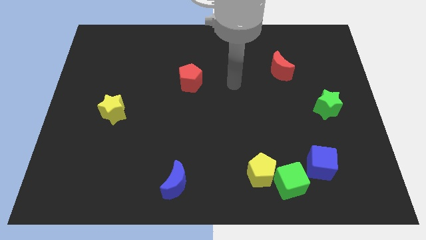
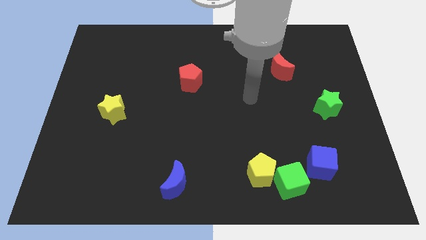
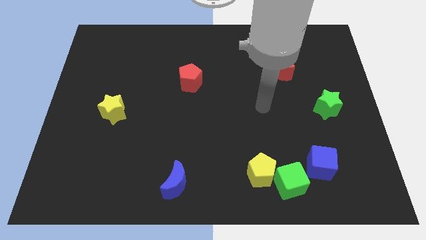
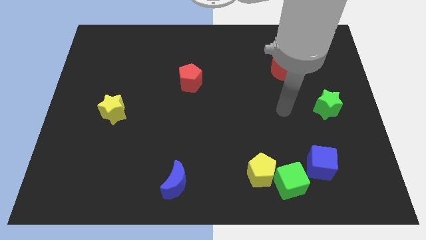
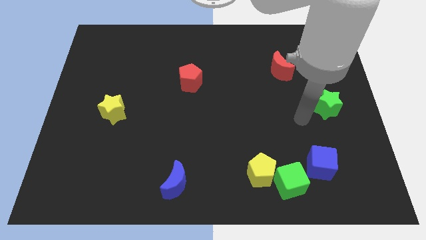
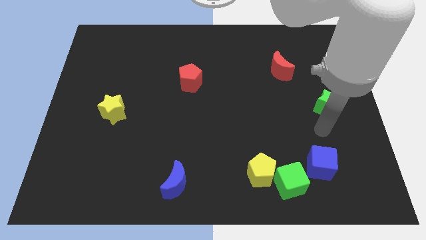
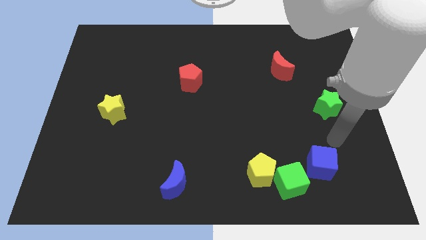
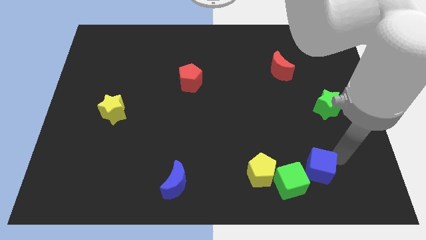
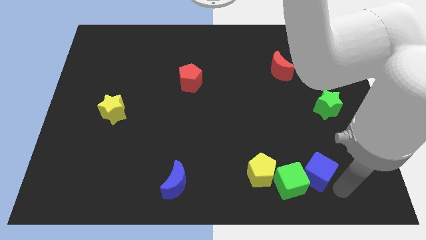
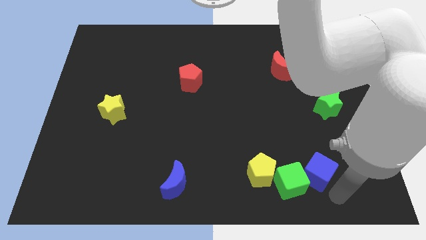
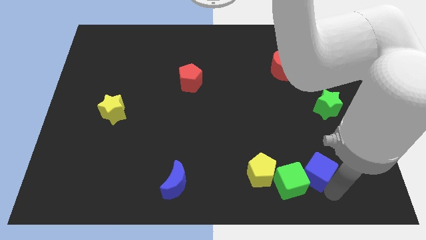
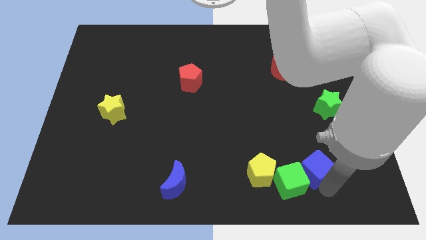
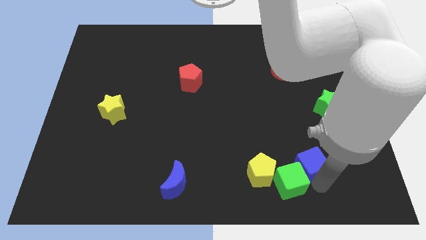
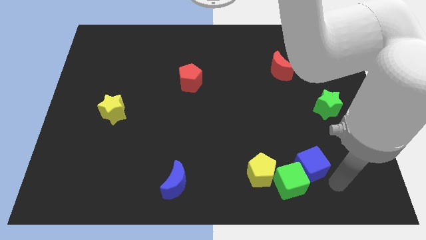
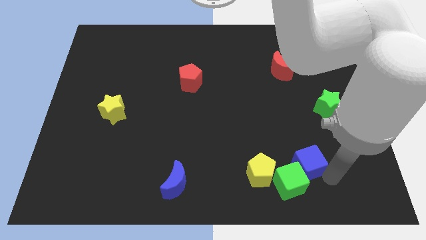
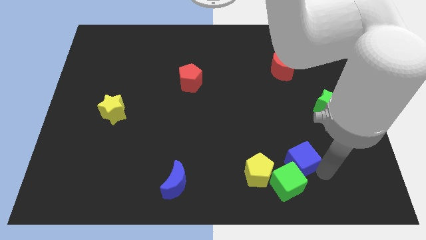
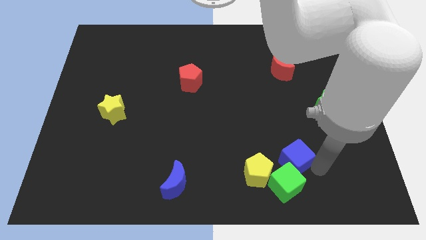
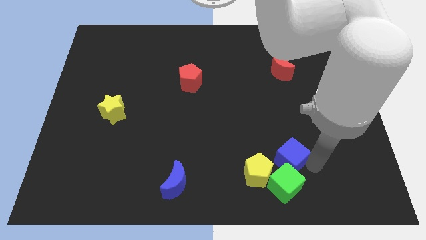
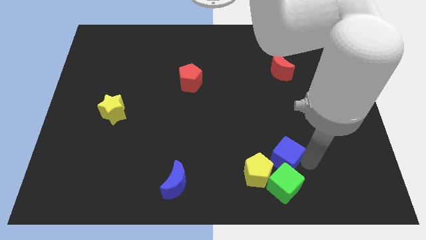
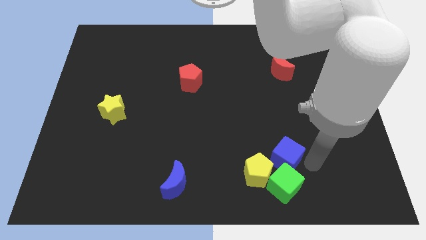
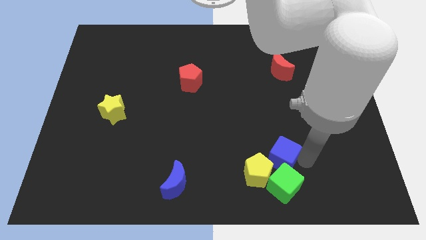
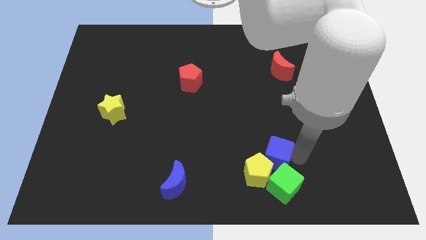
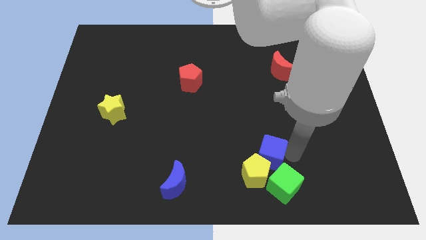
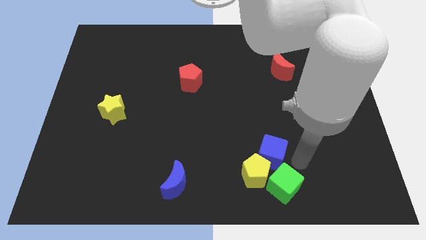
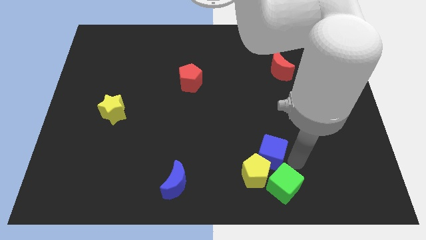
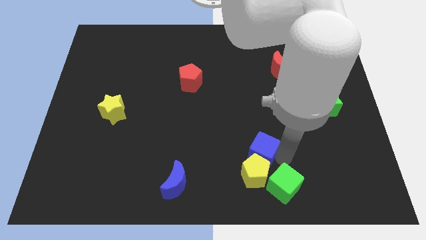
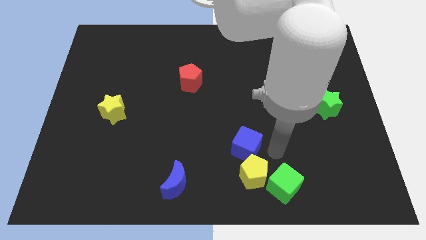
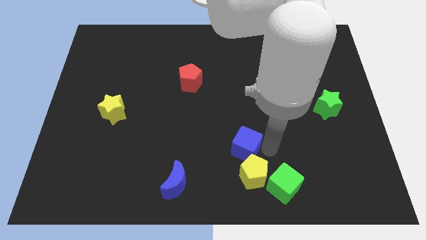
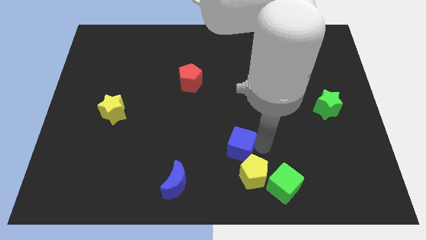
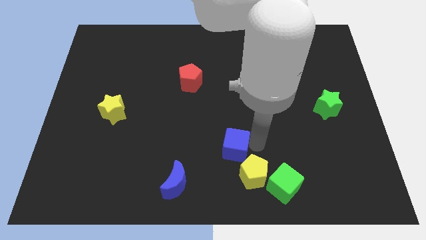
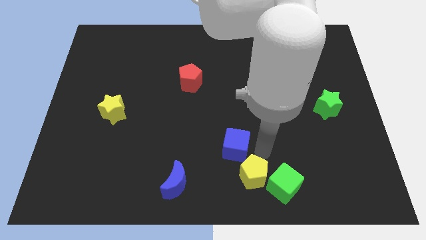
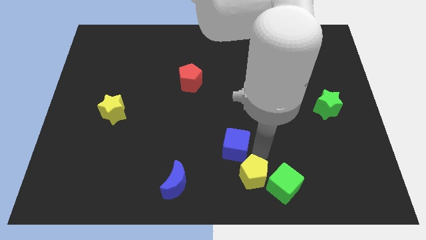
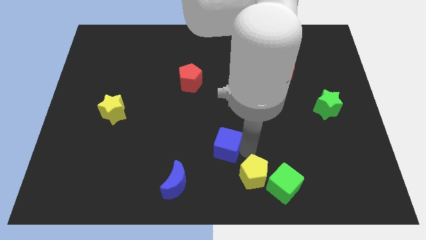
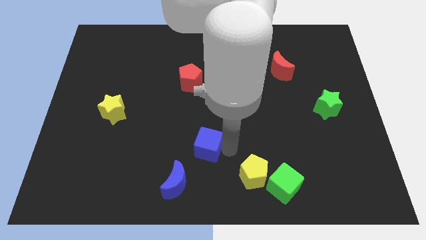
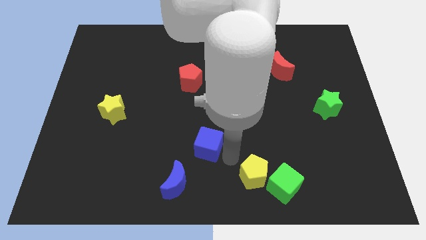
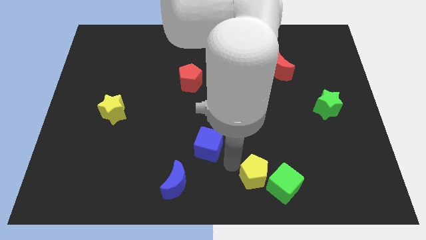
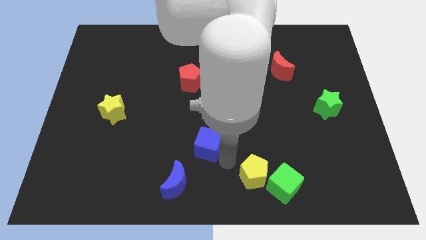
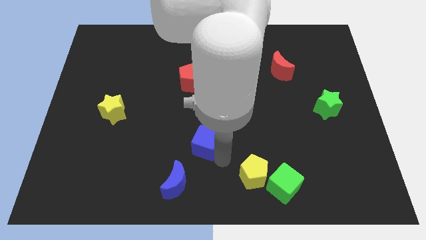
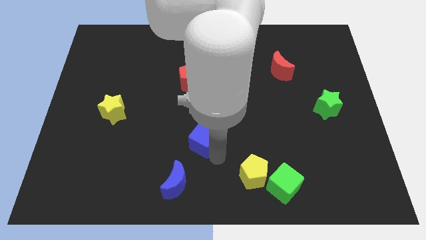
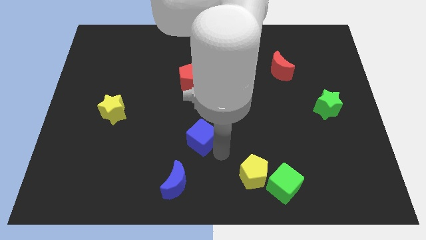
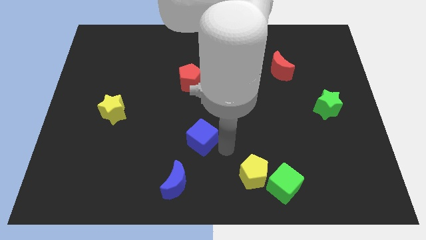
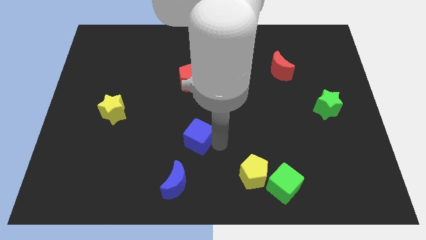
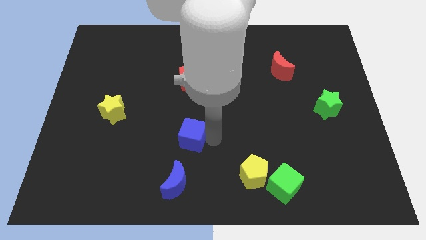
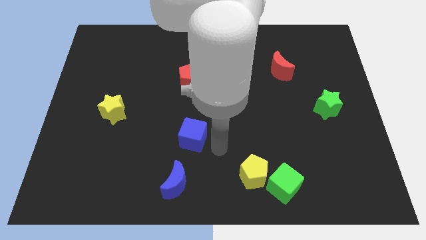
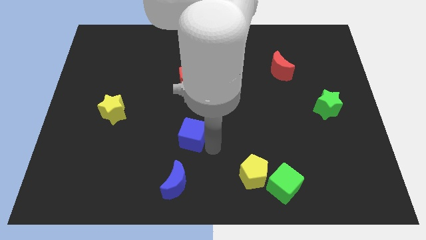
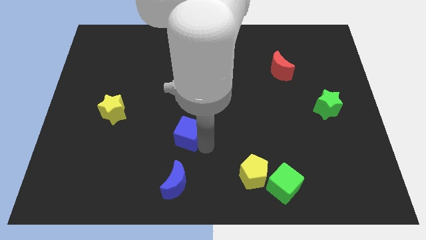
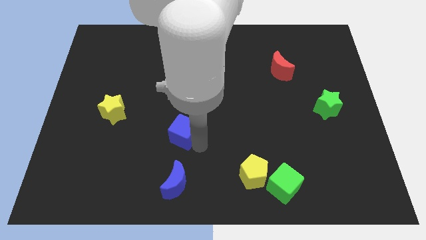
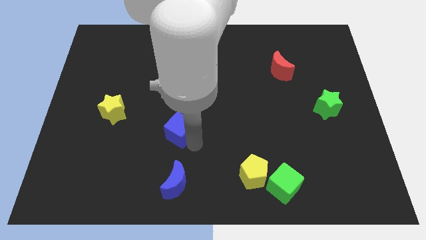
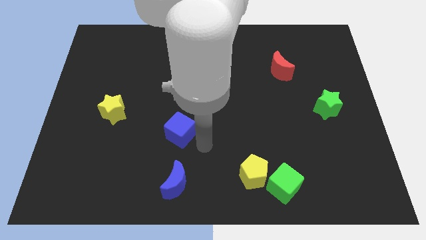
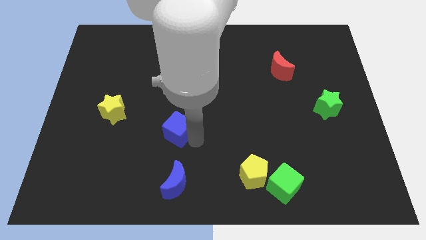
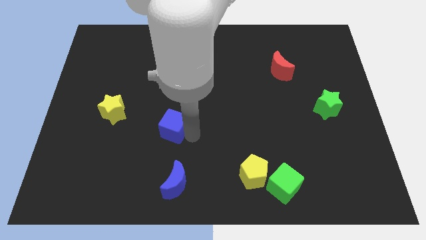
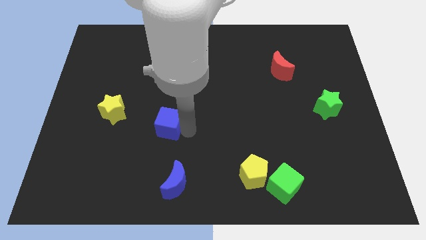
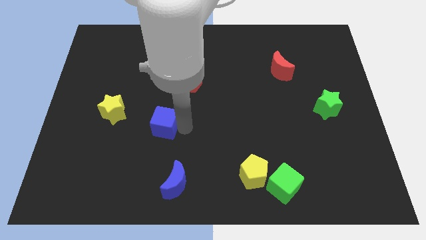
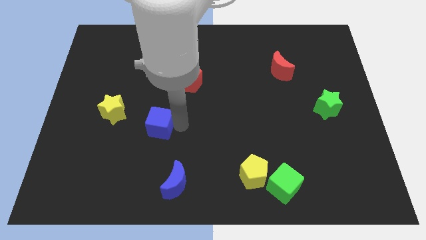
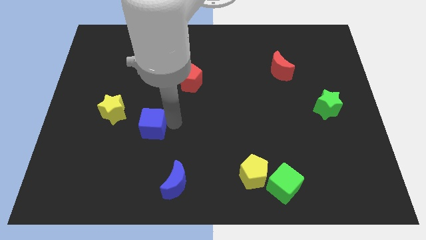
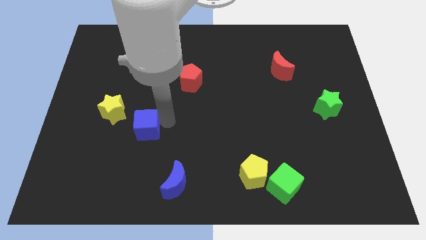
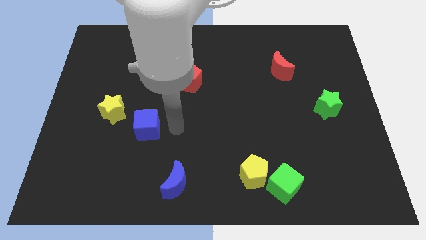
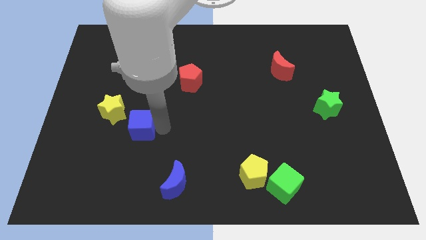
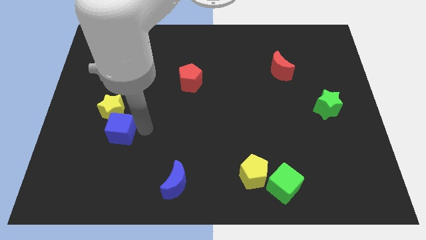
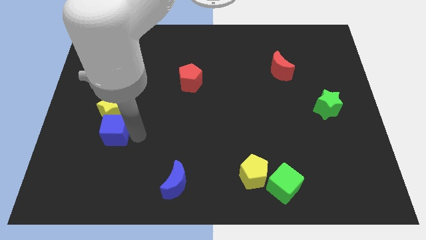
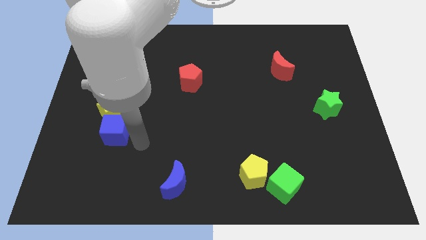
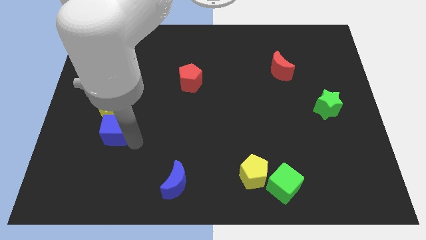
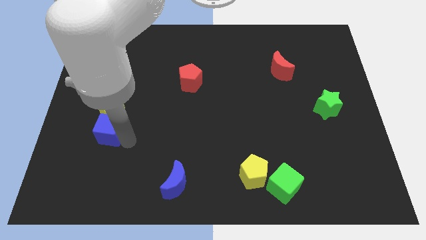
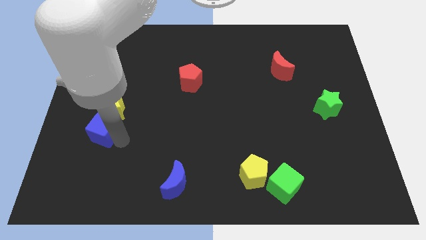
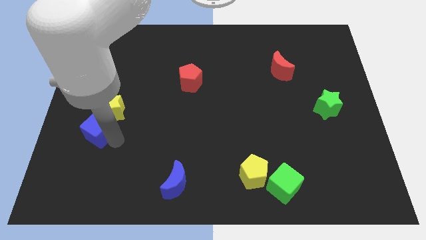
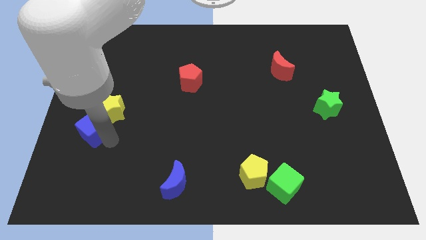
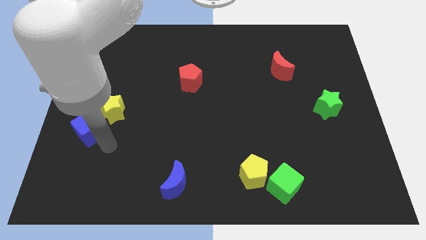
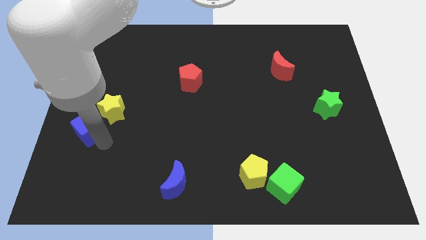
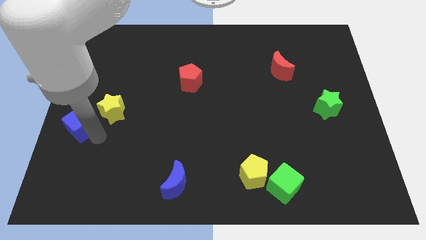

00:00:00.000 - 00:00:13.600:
push the blue cube to the left side of the board
